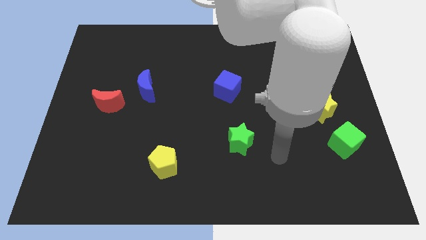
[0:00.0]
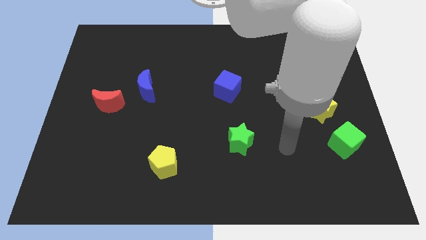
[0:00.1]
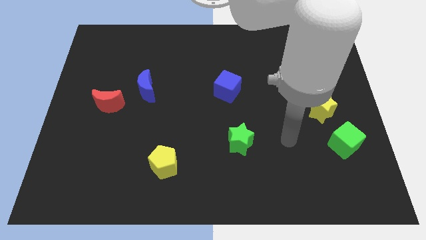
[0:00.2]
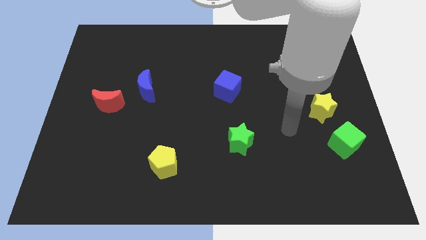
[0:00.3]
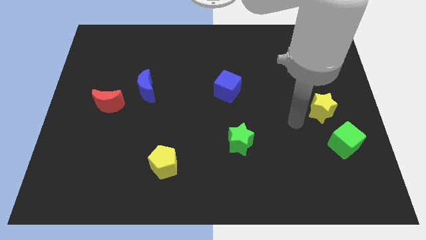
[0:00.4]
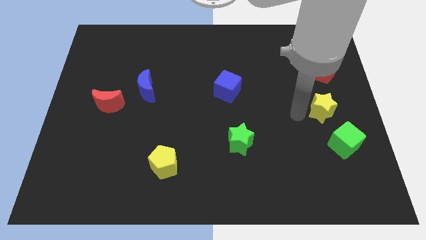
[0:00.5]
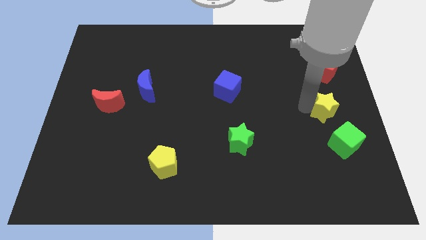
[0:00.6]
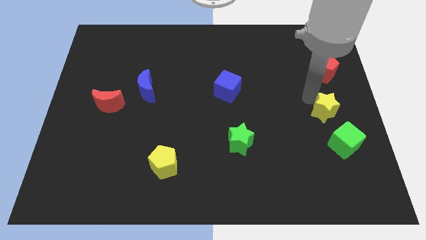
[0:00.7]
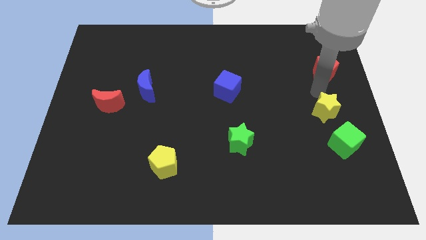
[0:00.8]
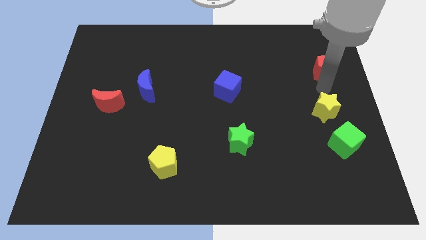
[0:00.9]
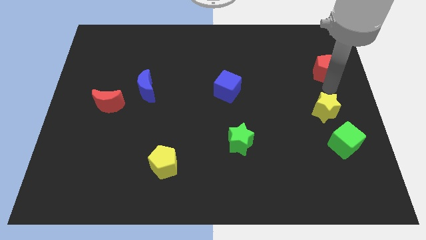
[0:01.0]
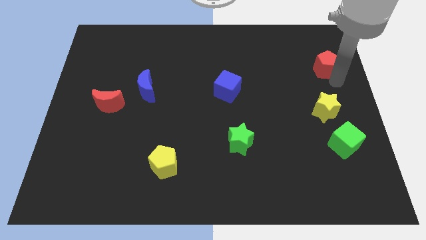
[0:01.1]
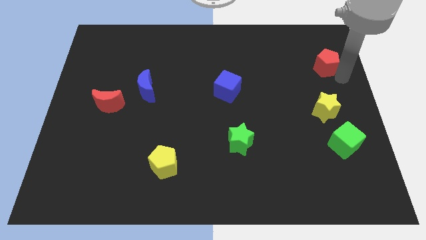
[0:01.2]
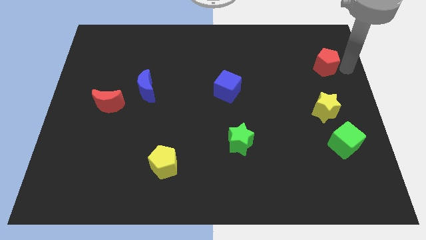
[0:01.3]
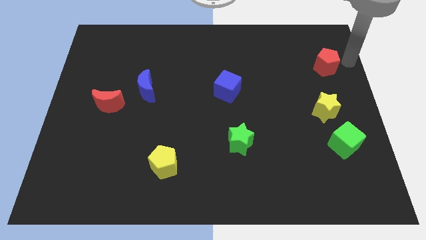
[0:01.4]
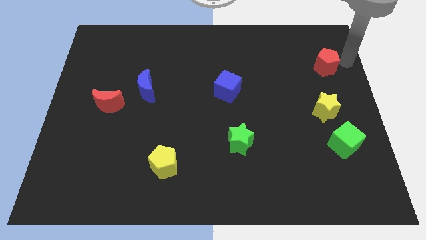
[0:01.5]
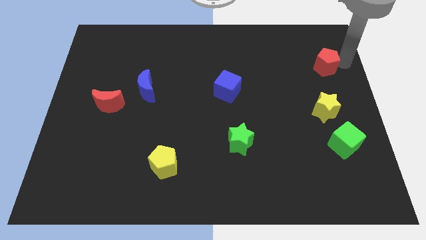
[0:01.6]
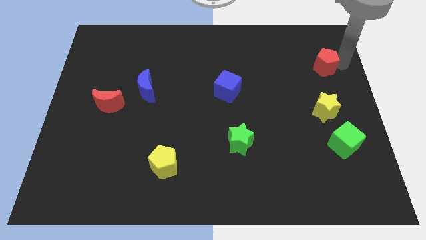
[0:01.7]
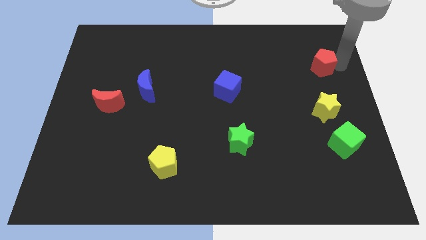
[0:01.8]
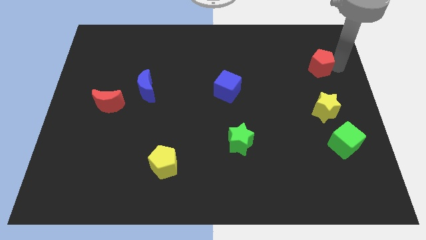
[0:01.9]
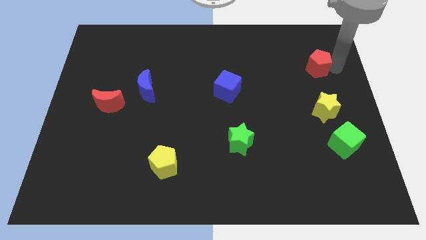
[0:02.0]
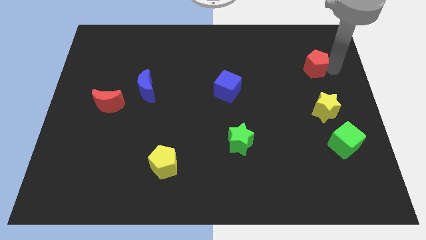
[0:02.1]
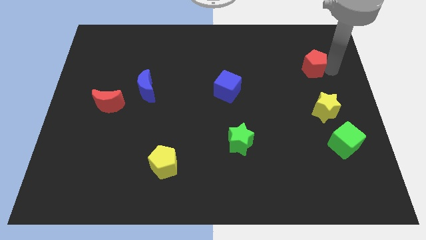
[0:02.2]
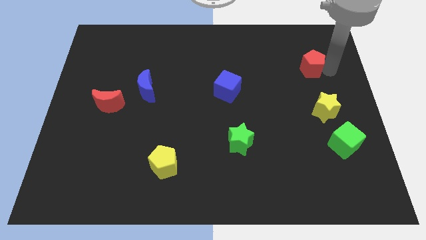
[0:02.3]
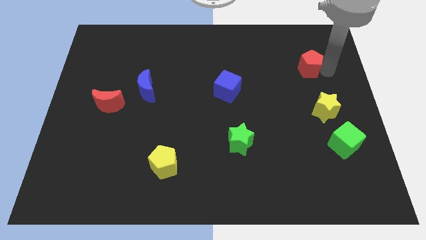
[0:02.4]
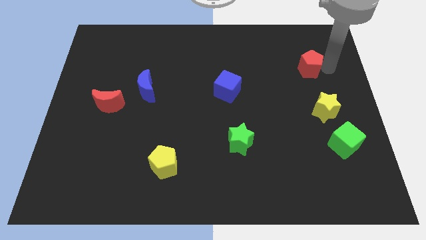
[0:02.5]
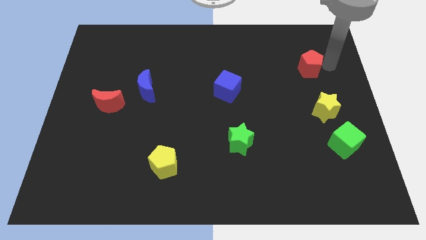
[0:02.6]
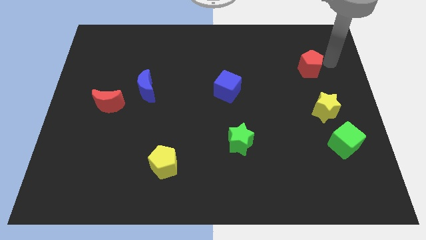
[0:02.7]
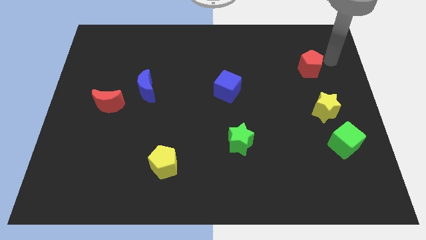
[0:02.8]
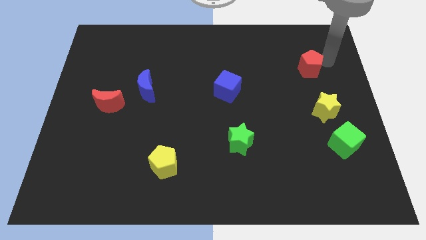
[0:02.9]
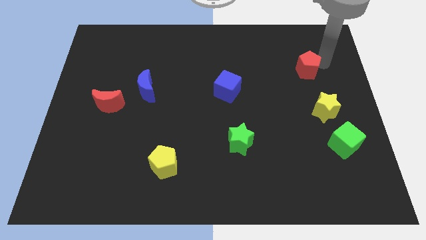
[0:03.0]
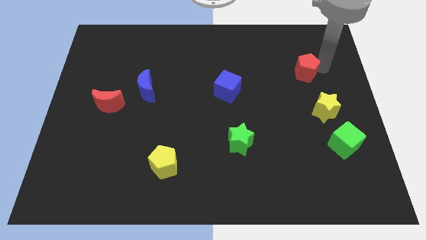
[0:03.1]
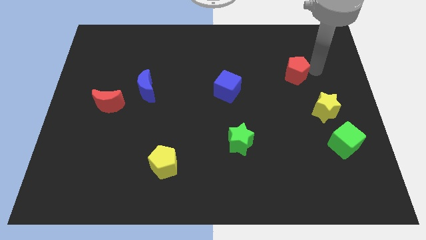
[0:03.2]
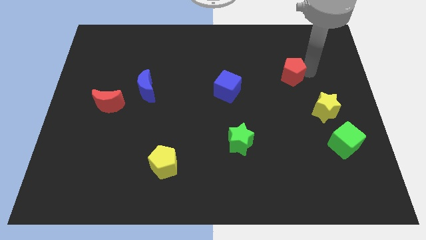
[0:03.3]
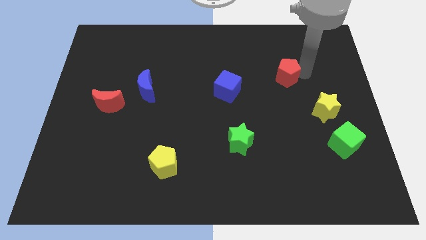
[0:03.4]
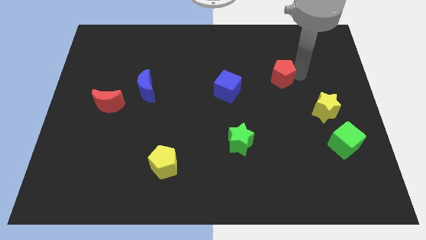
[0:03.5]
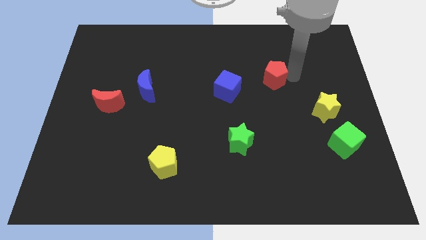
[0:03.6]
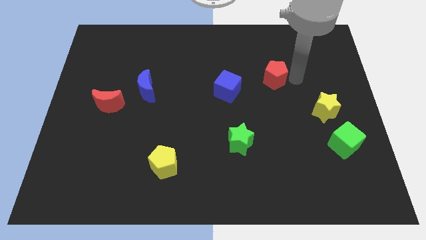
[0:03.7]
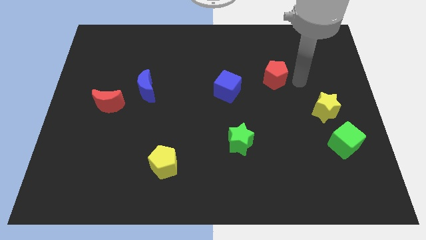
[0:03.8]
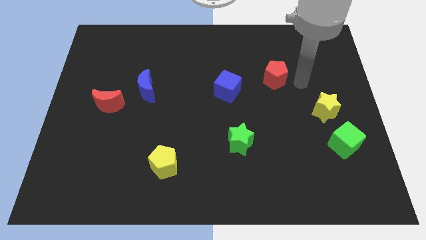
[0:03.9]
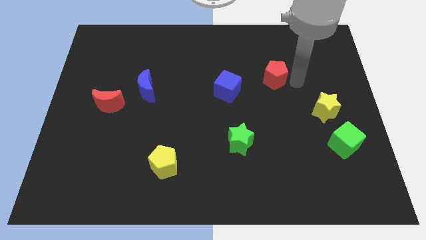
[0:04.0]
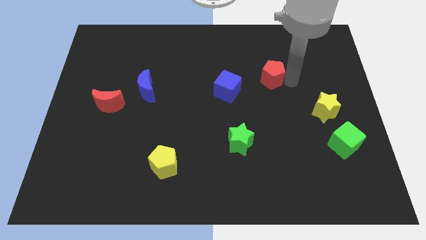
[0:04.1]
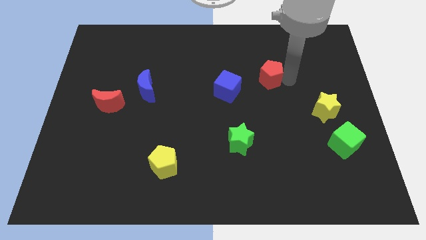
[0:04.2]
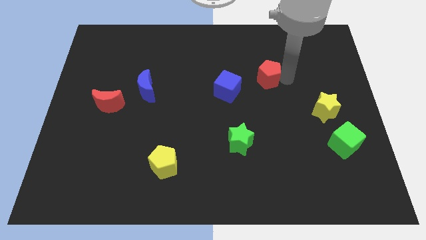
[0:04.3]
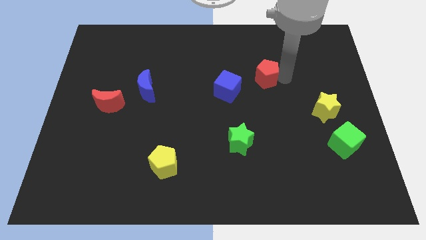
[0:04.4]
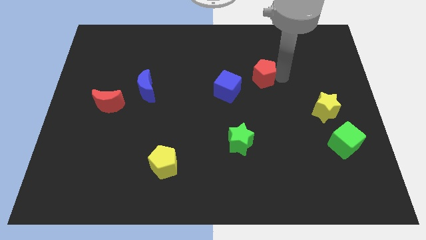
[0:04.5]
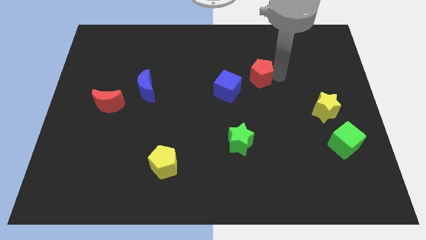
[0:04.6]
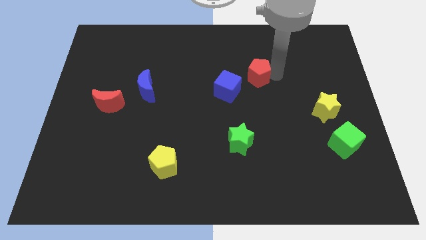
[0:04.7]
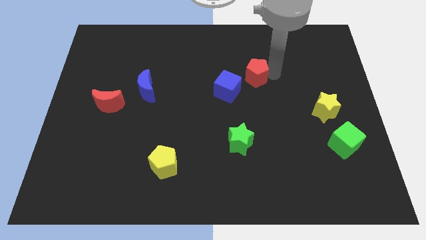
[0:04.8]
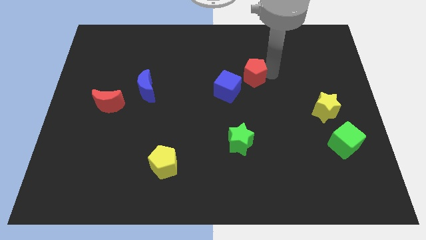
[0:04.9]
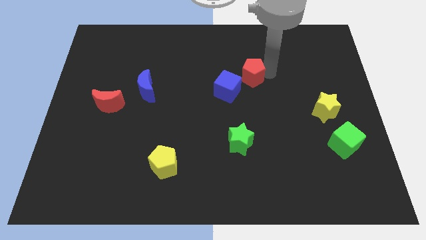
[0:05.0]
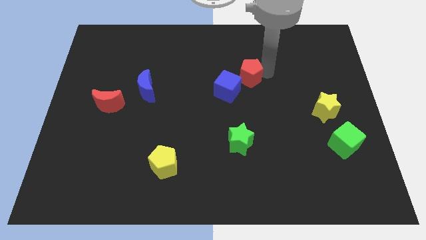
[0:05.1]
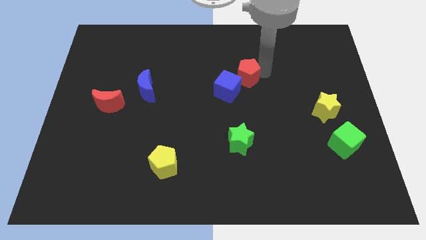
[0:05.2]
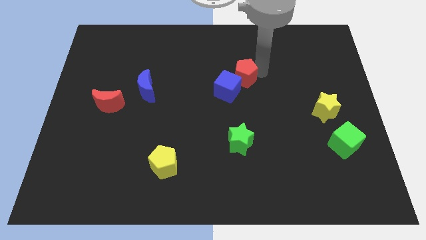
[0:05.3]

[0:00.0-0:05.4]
slide the red pentagon left

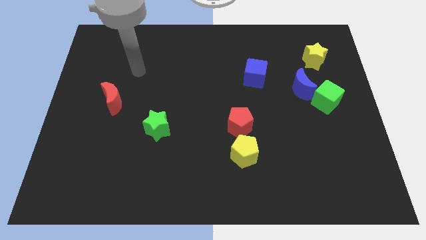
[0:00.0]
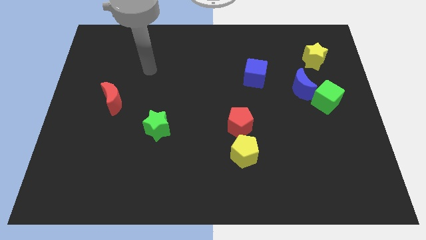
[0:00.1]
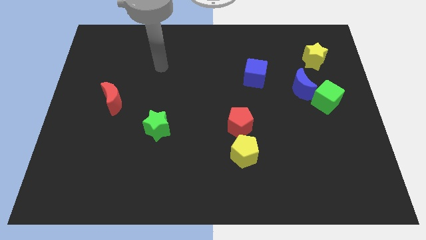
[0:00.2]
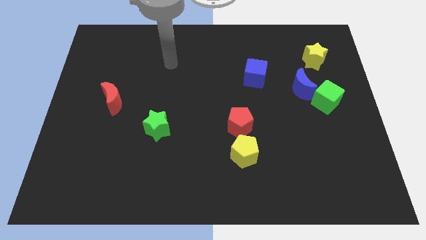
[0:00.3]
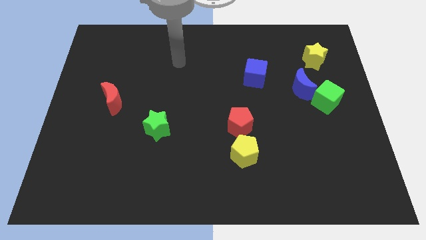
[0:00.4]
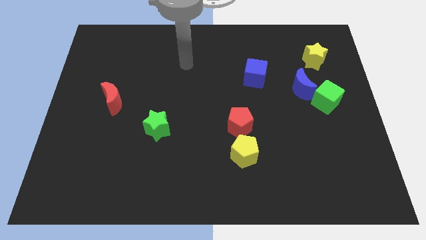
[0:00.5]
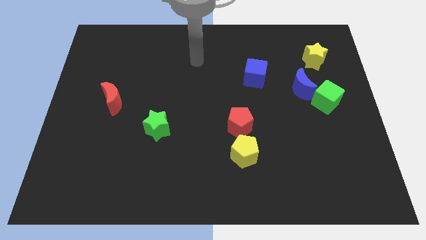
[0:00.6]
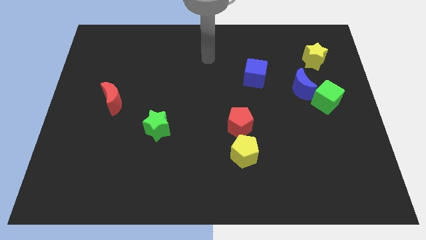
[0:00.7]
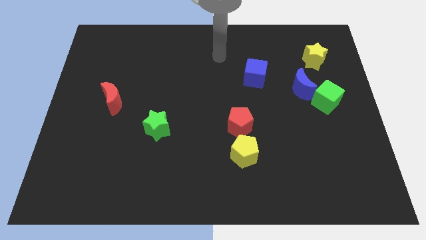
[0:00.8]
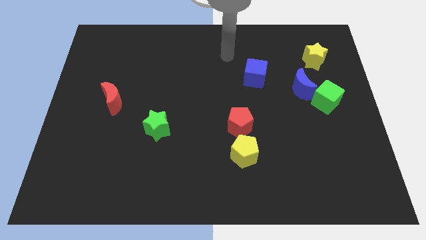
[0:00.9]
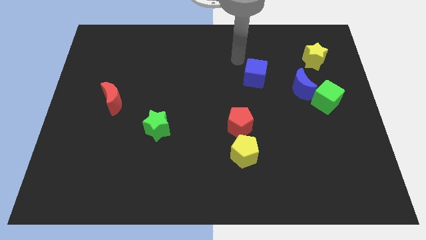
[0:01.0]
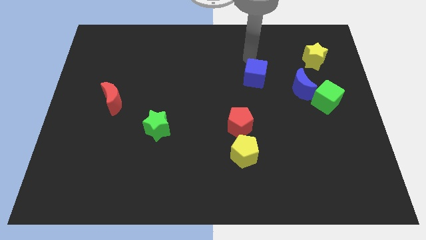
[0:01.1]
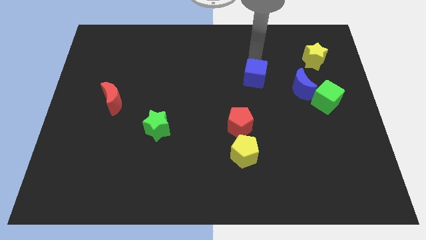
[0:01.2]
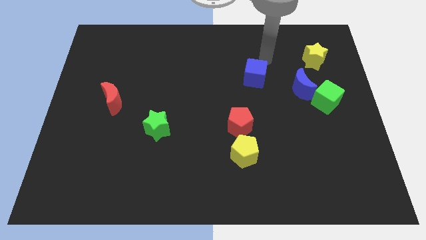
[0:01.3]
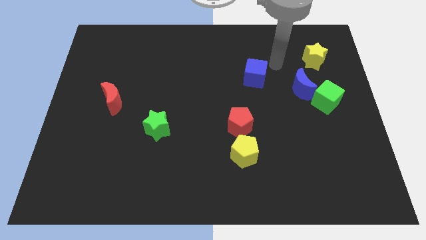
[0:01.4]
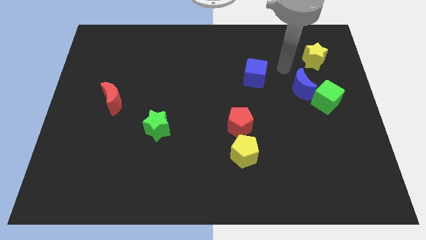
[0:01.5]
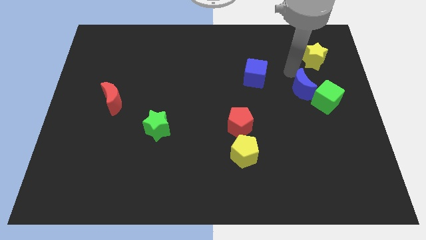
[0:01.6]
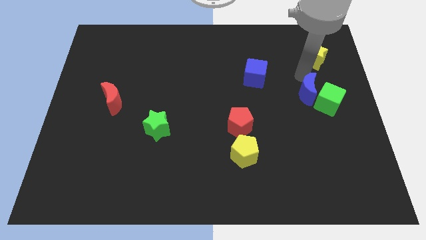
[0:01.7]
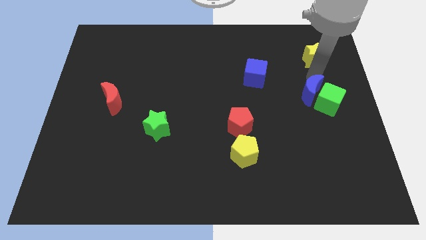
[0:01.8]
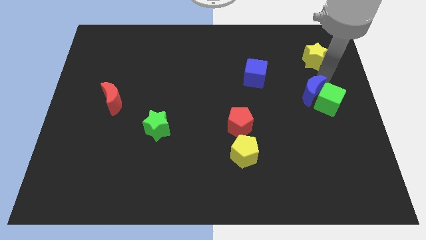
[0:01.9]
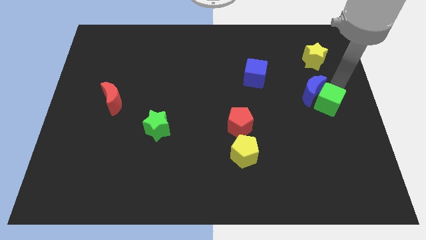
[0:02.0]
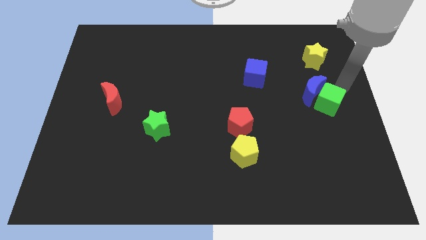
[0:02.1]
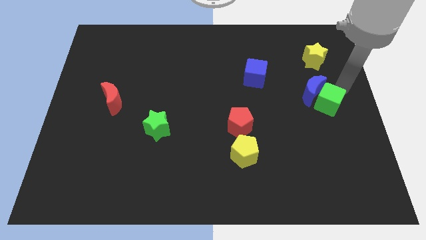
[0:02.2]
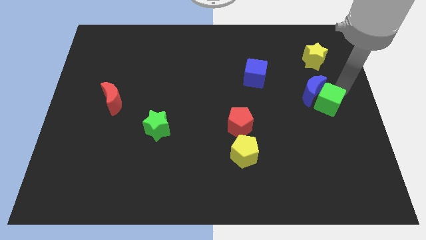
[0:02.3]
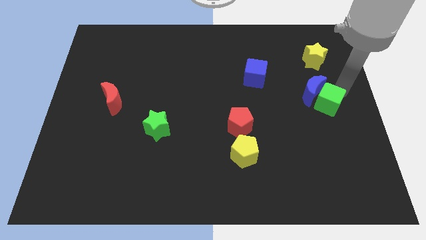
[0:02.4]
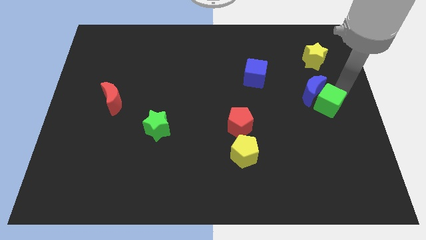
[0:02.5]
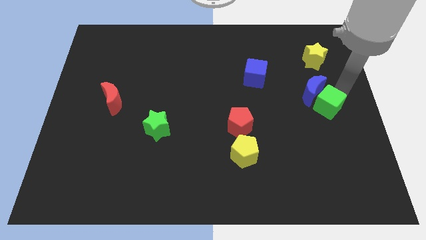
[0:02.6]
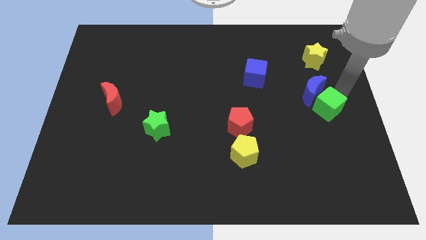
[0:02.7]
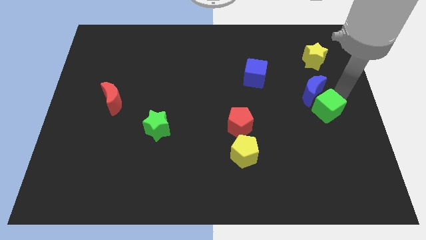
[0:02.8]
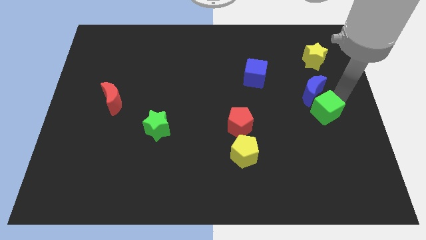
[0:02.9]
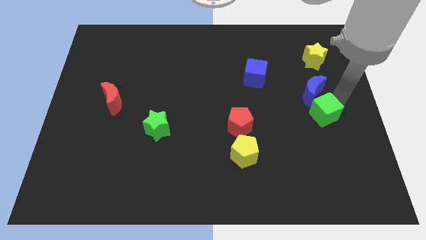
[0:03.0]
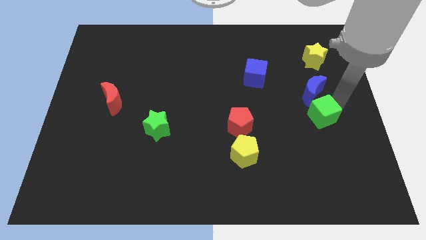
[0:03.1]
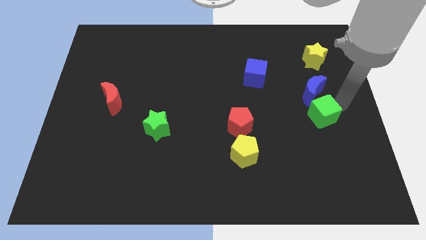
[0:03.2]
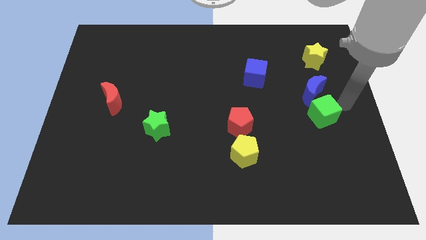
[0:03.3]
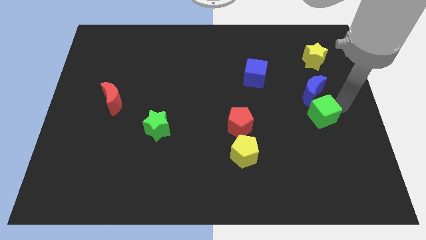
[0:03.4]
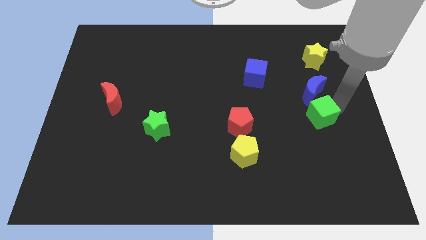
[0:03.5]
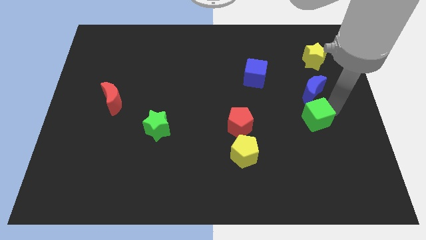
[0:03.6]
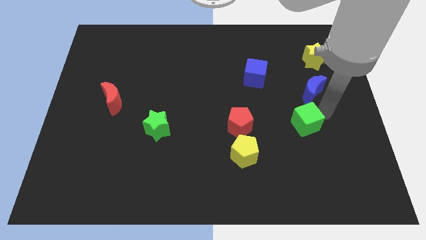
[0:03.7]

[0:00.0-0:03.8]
slightly move the green cube downwards and left diagonally
